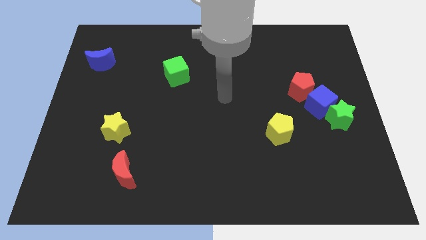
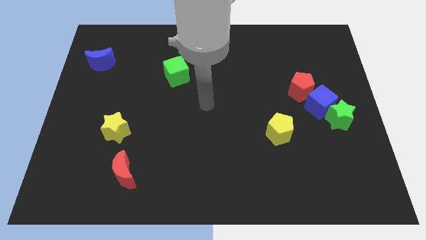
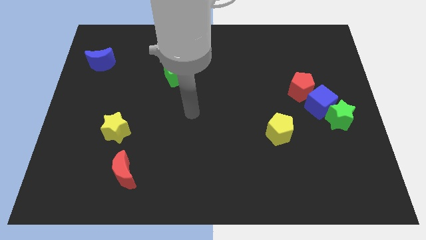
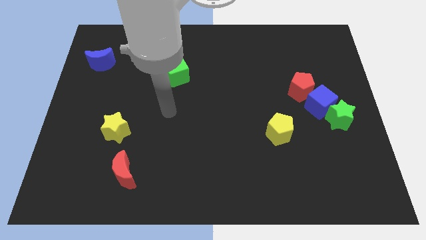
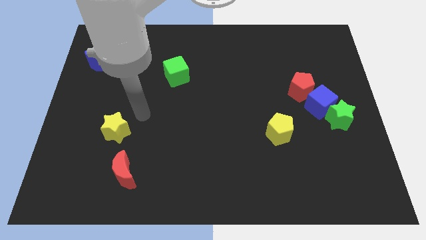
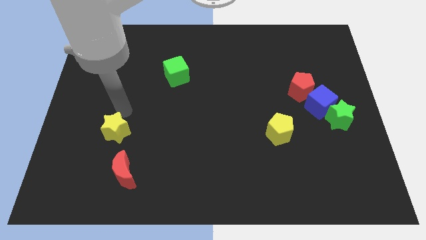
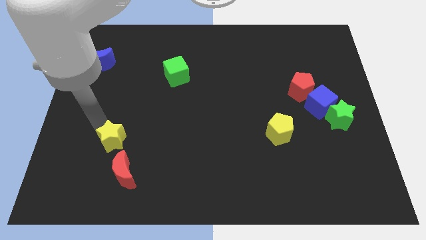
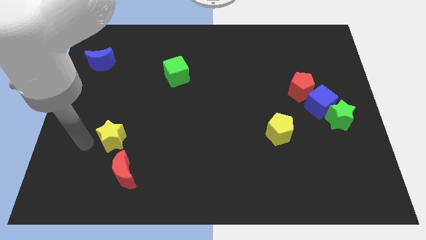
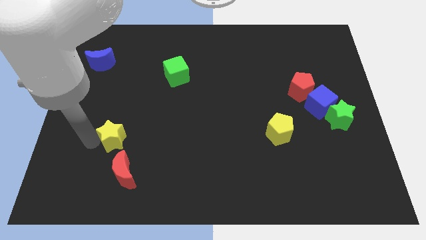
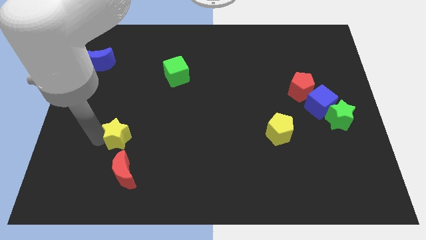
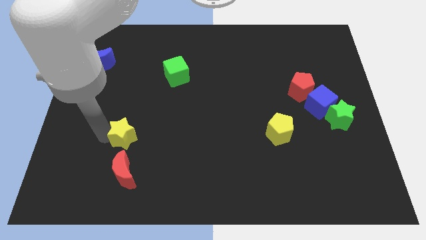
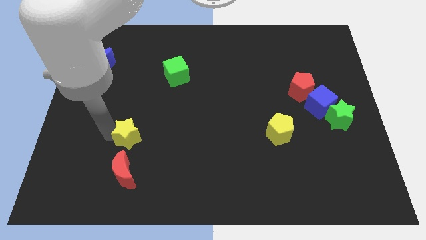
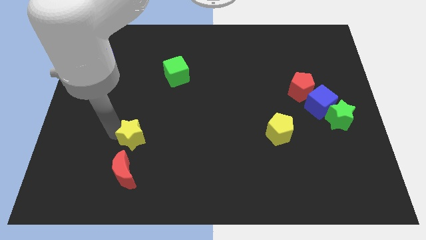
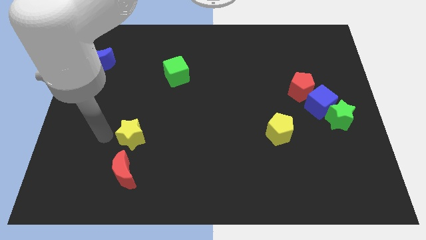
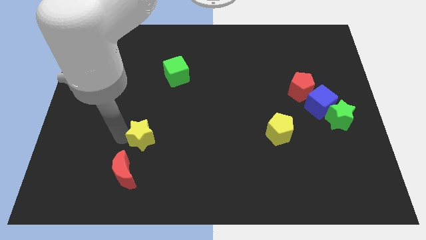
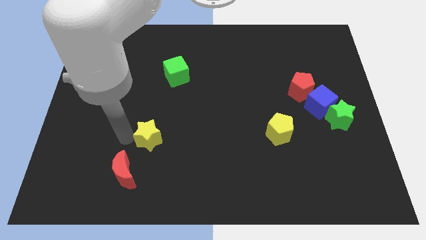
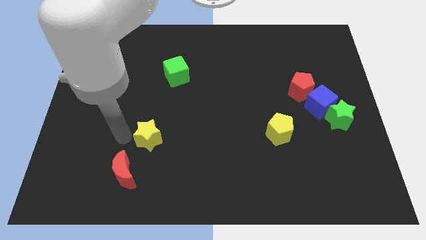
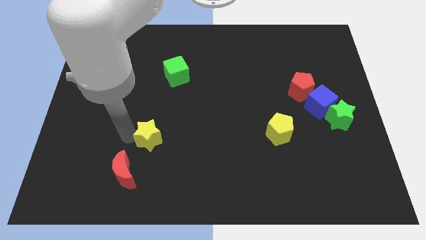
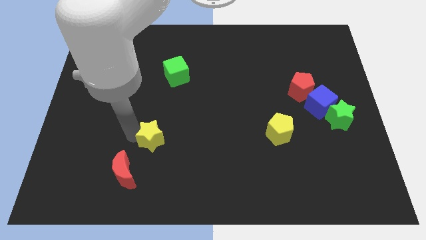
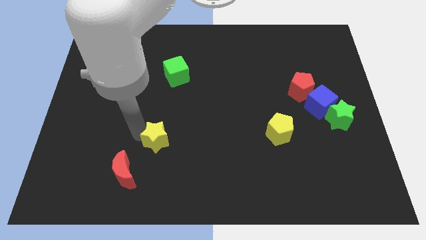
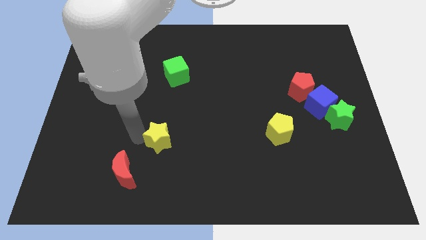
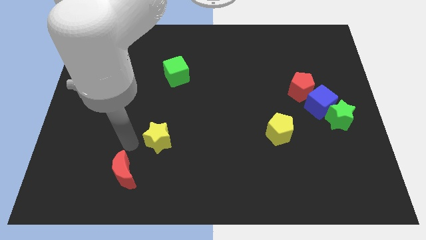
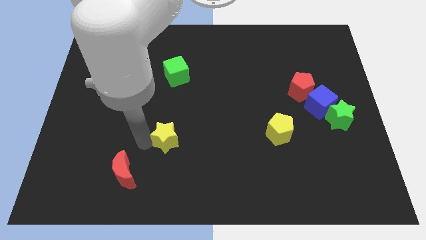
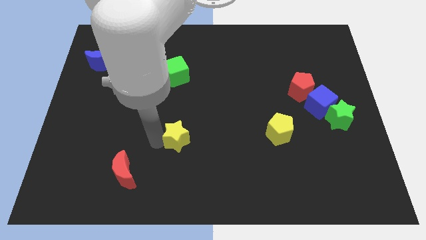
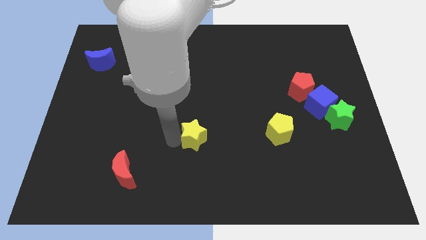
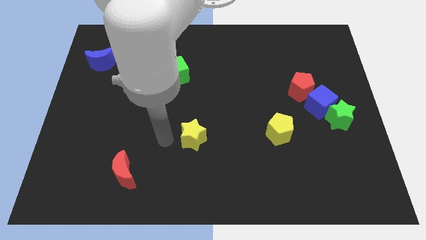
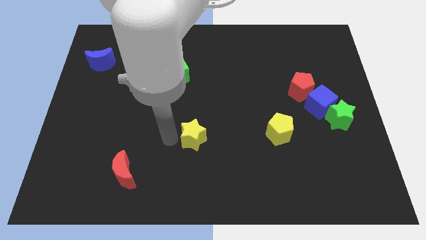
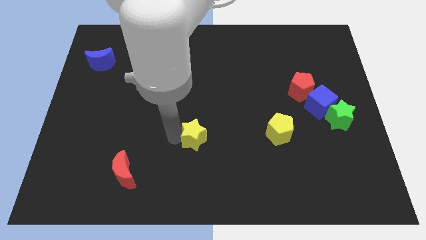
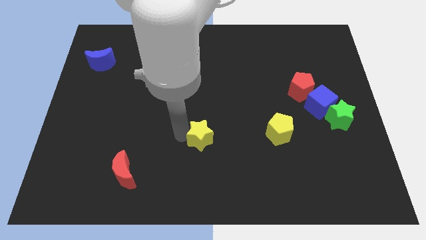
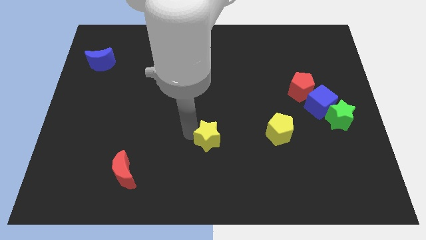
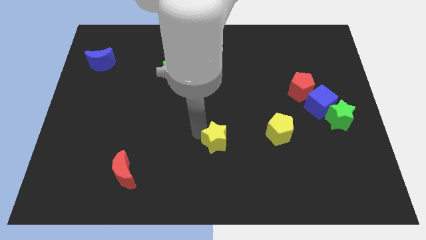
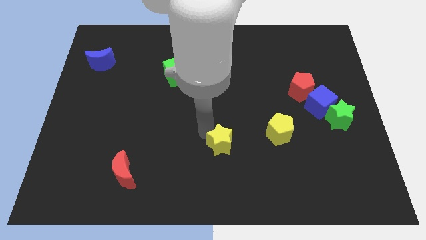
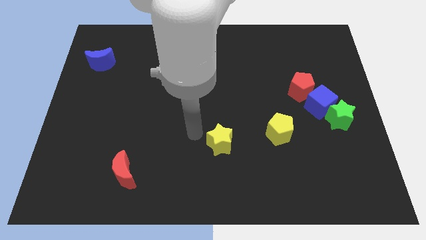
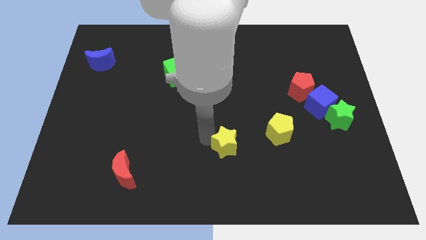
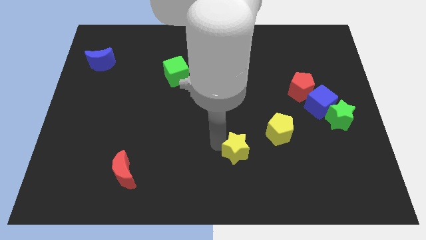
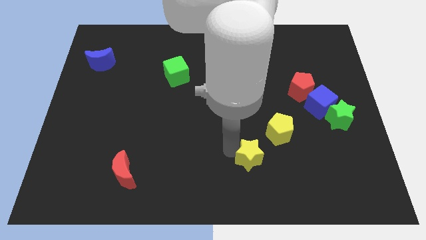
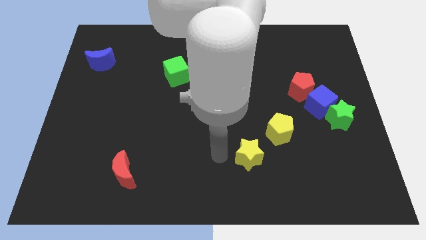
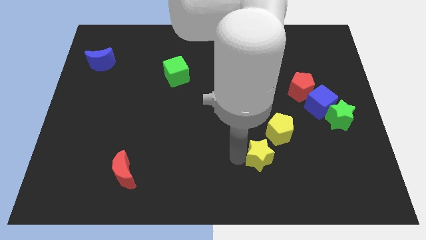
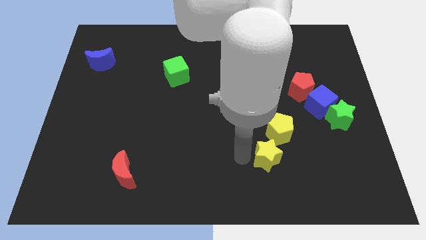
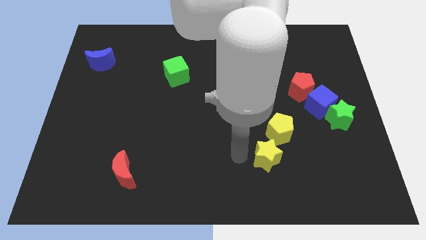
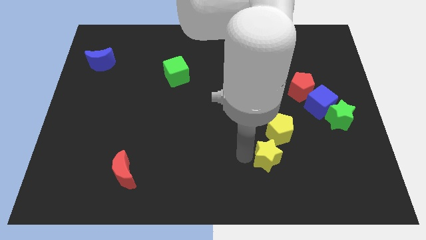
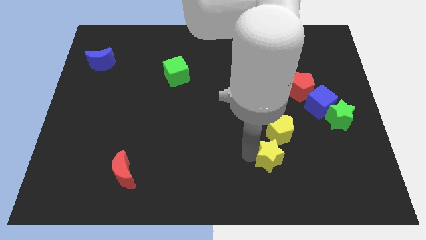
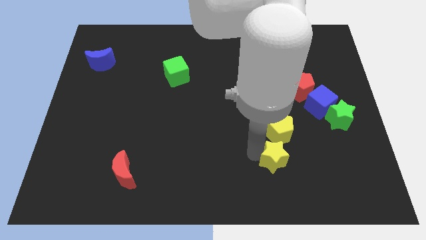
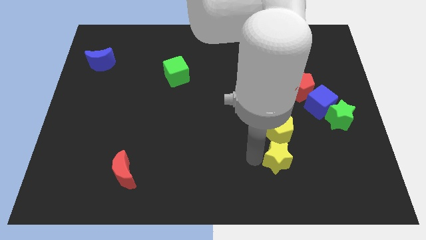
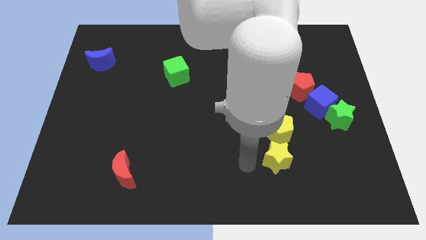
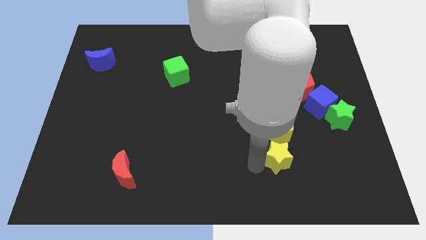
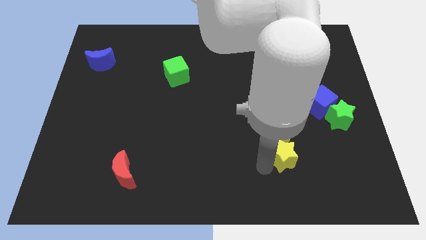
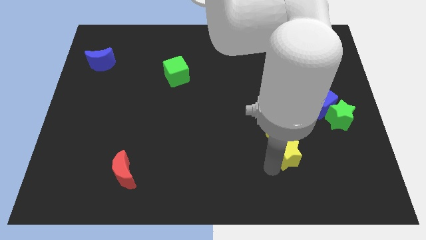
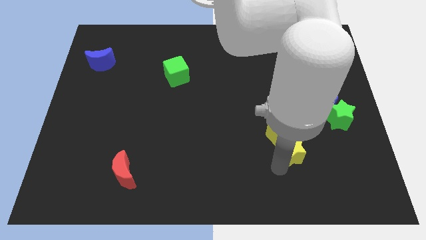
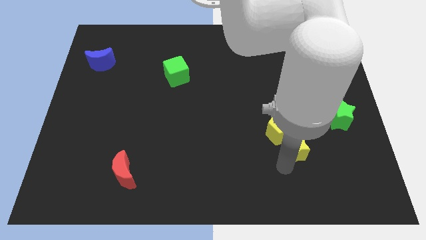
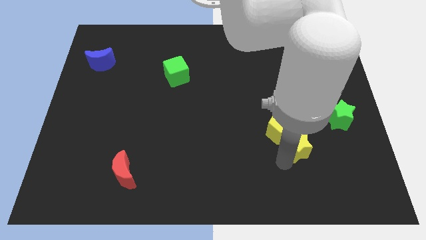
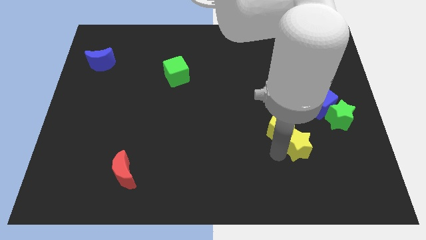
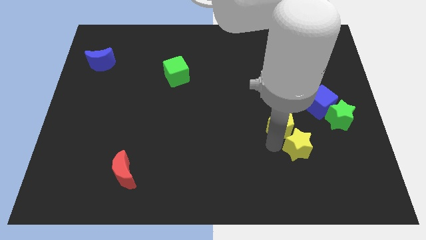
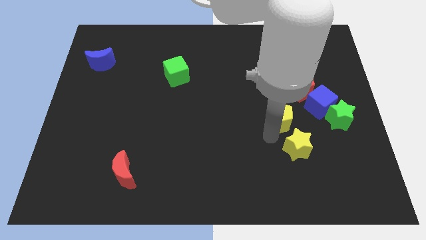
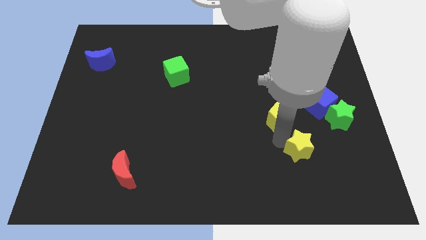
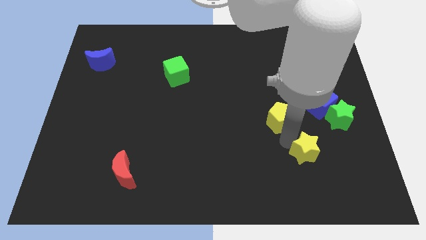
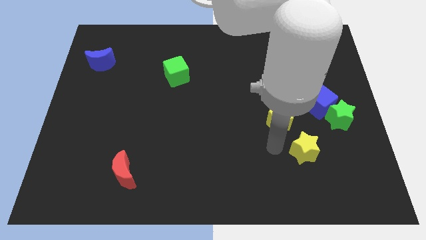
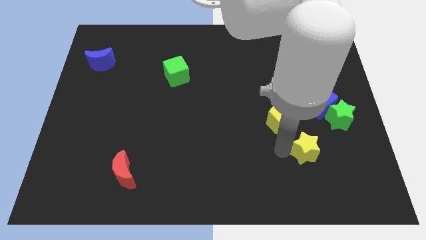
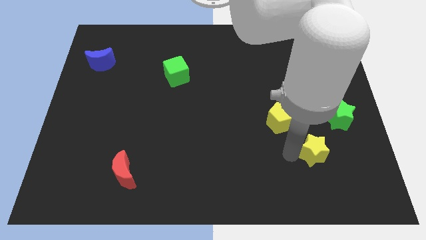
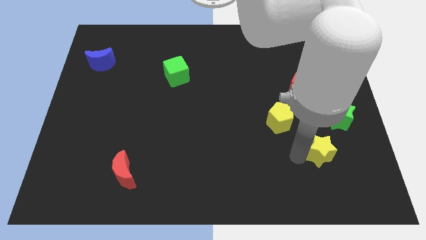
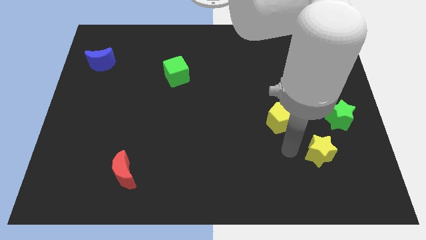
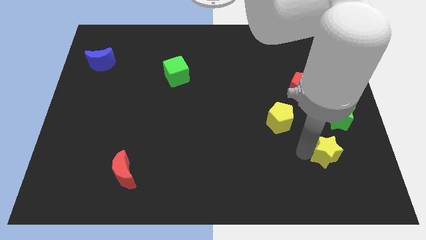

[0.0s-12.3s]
slide the yellow star to the bottom side of the green star

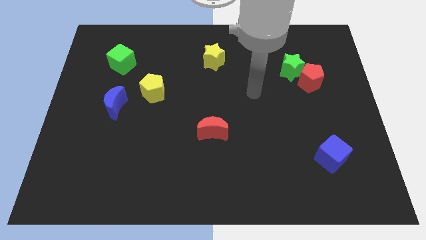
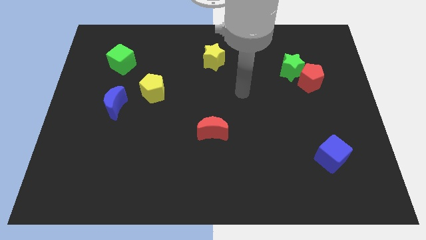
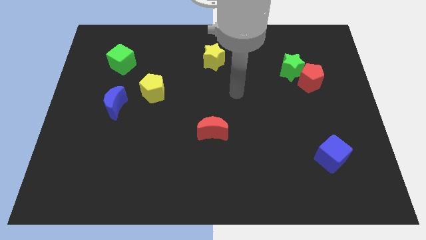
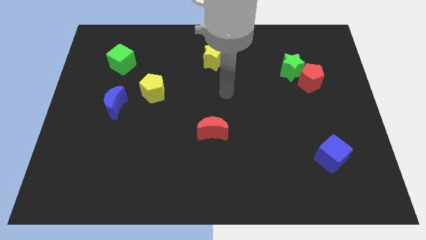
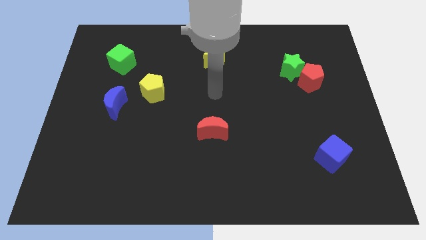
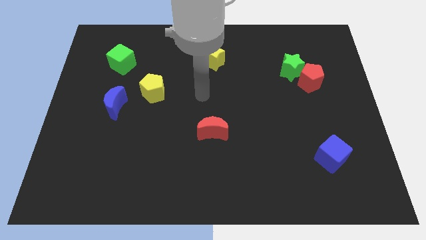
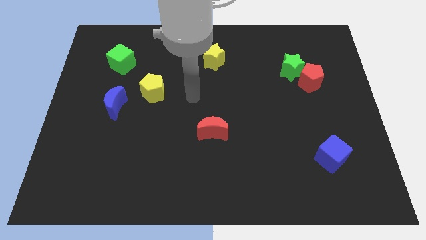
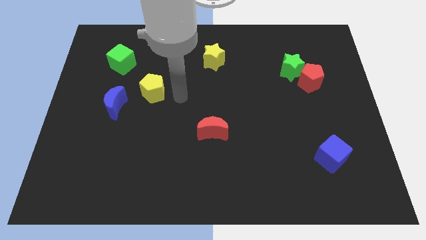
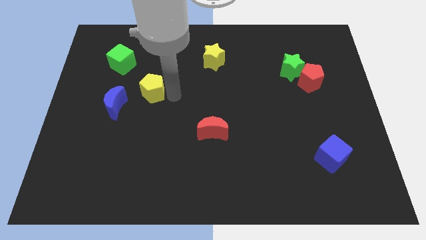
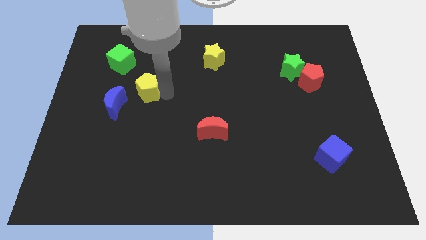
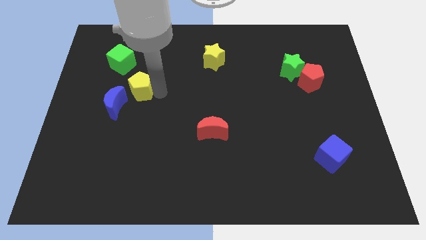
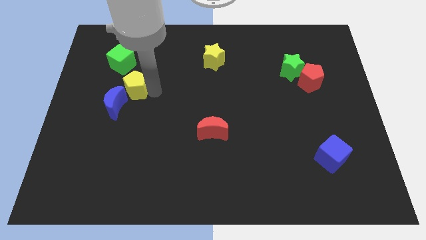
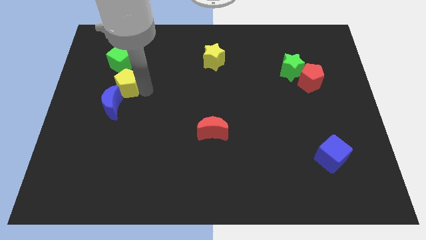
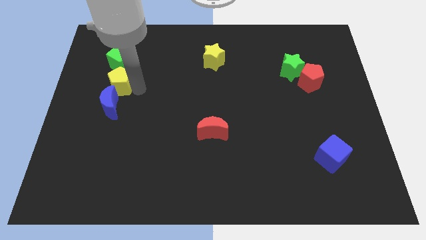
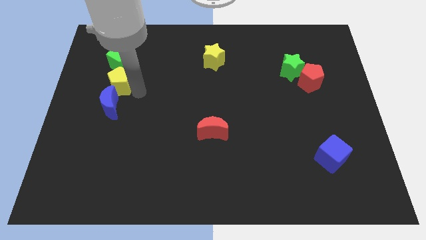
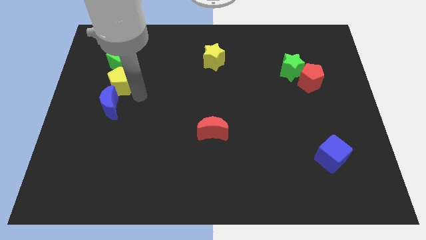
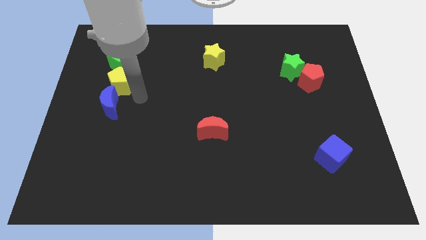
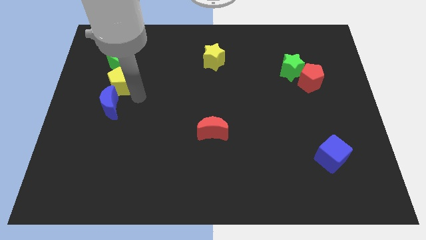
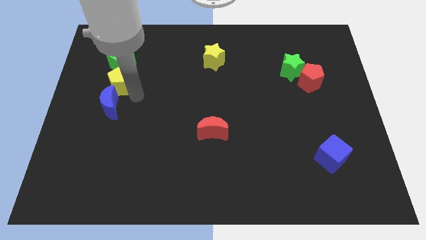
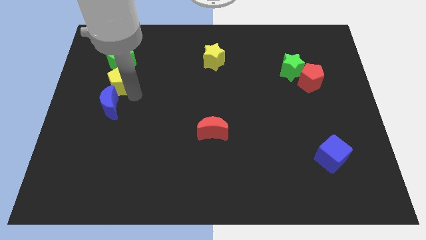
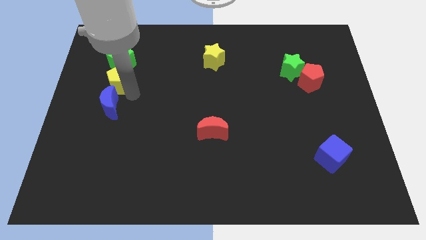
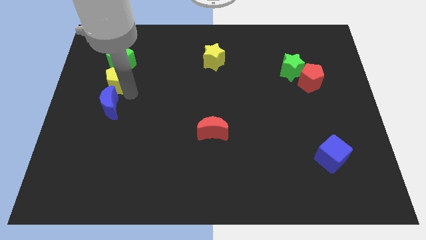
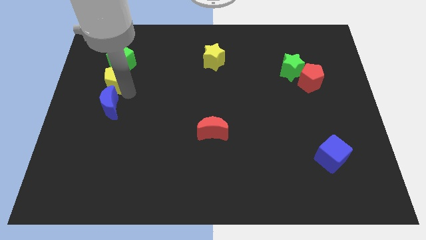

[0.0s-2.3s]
push the yellow pentagon diagonally down and to the left of the green cube
